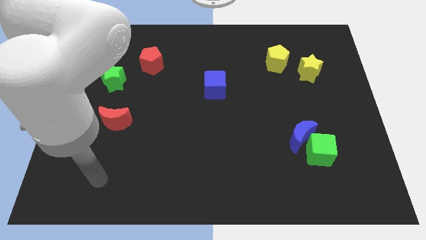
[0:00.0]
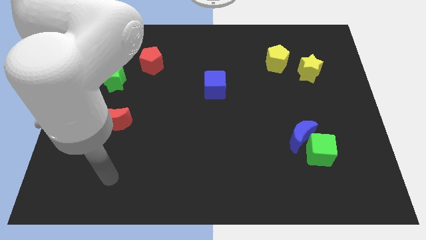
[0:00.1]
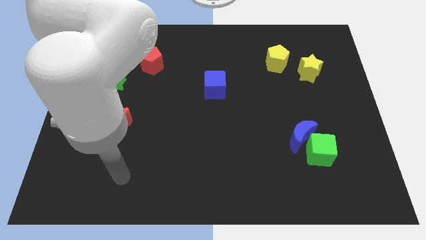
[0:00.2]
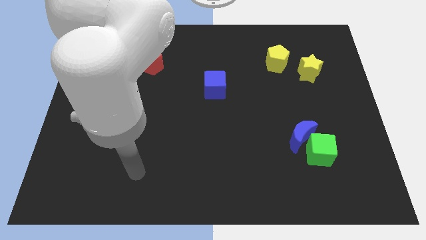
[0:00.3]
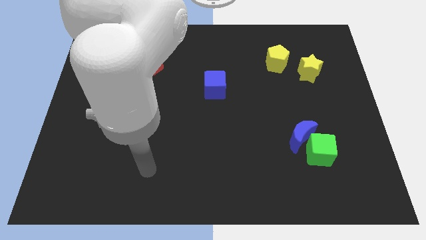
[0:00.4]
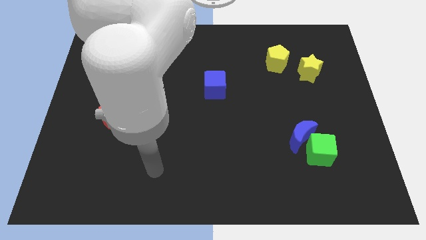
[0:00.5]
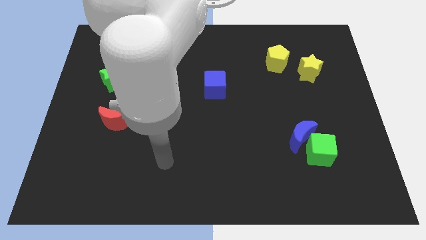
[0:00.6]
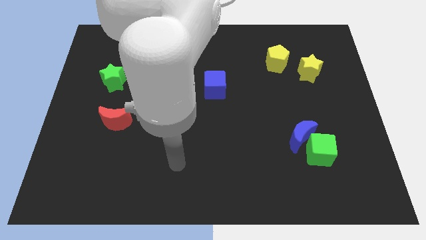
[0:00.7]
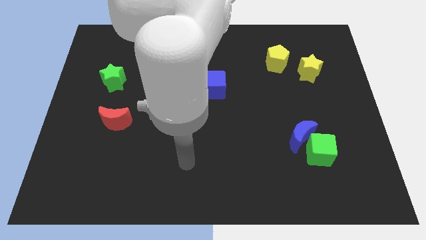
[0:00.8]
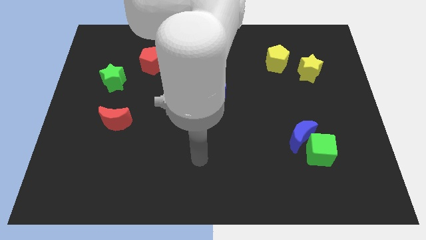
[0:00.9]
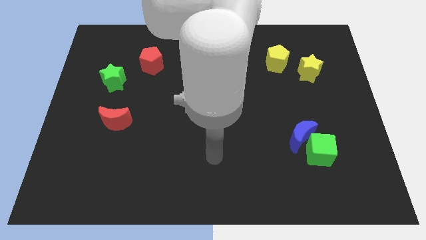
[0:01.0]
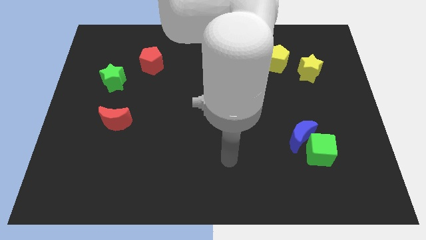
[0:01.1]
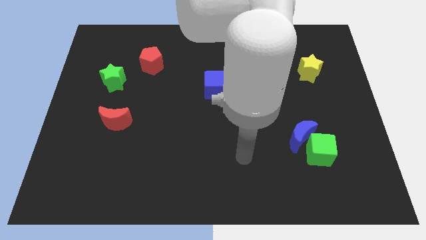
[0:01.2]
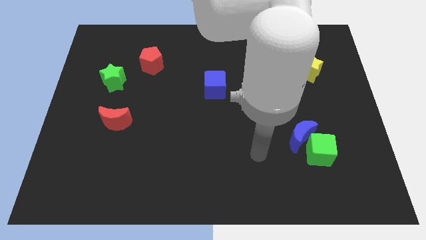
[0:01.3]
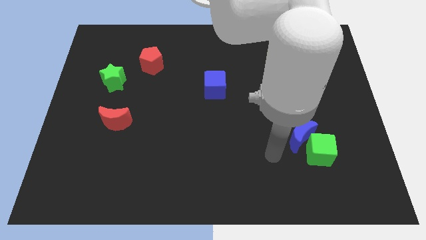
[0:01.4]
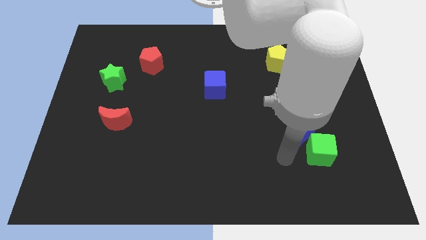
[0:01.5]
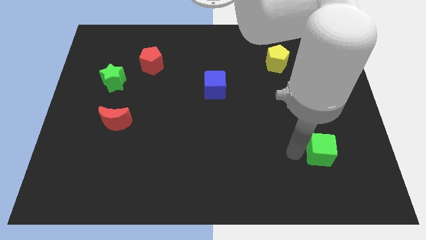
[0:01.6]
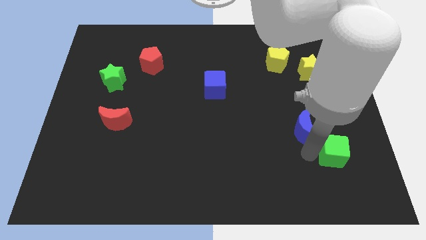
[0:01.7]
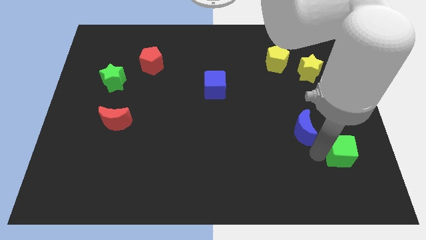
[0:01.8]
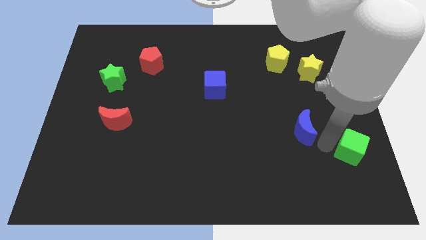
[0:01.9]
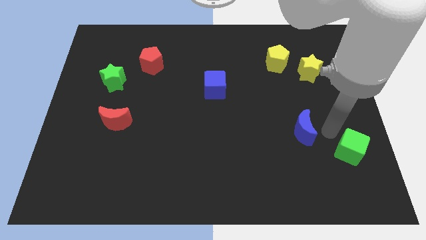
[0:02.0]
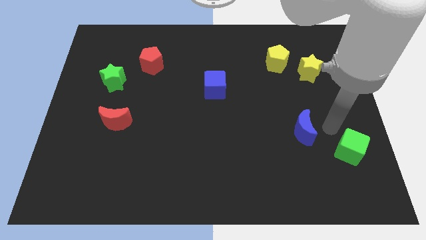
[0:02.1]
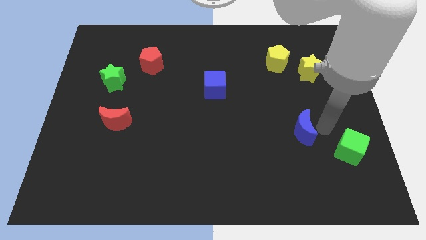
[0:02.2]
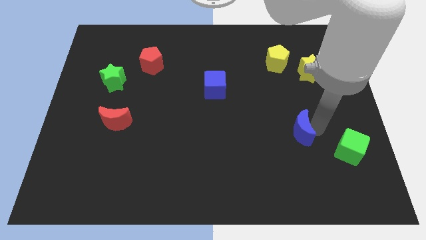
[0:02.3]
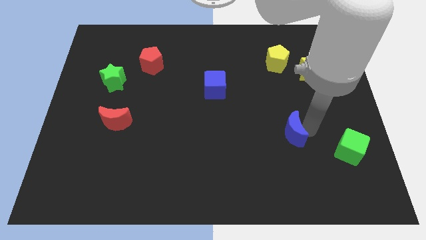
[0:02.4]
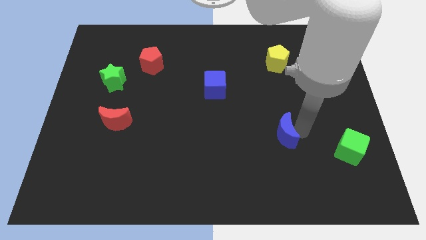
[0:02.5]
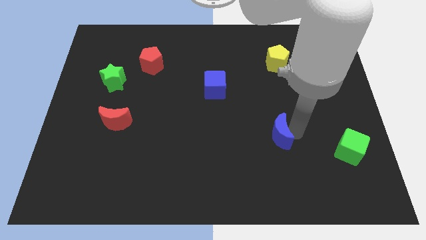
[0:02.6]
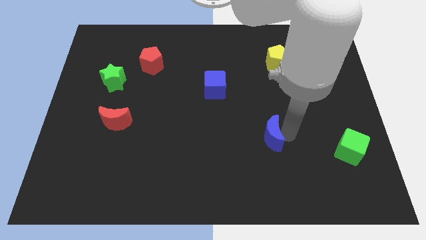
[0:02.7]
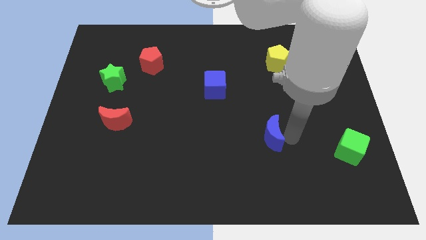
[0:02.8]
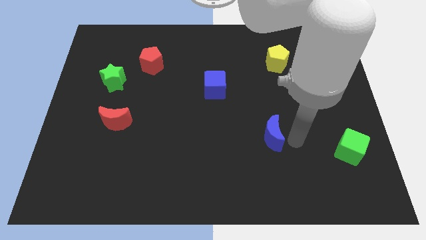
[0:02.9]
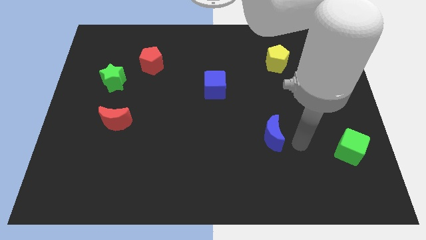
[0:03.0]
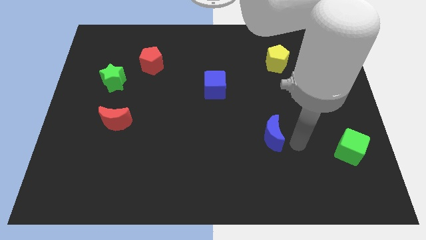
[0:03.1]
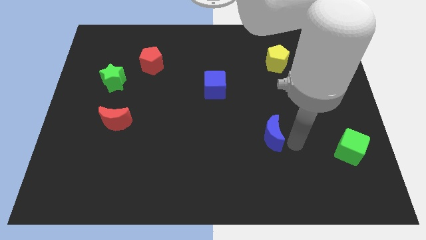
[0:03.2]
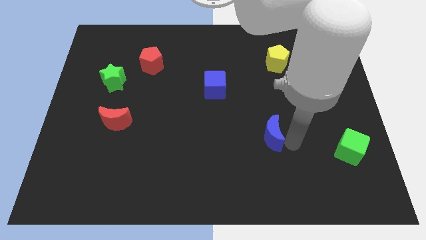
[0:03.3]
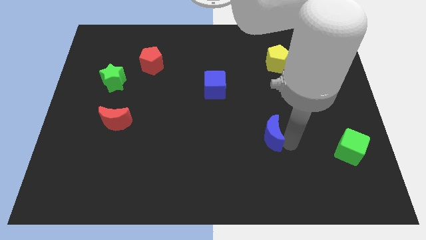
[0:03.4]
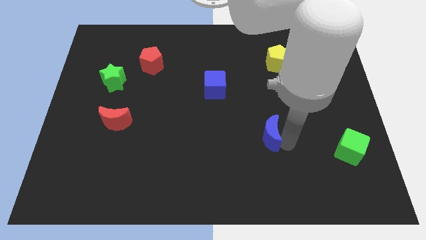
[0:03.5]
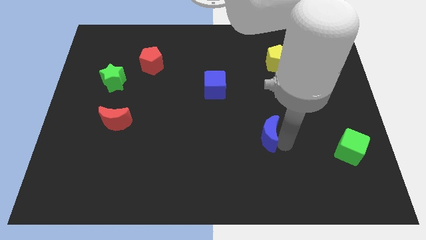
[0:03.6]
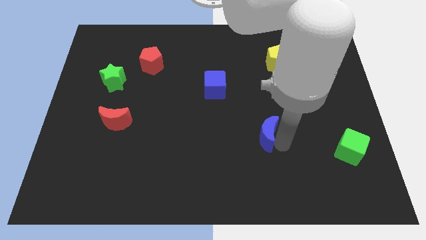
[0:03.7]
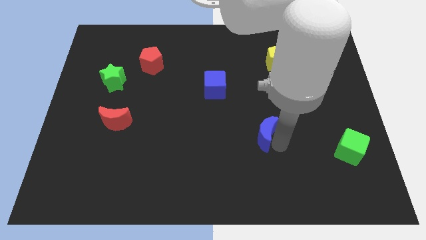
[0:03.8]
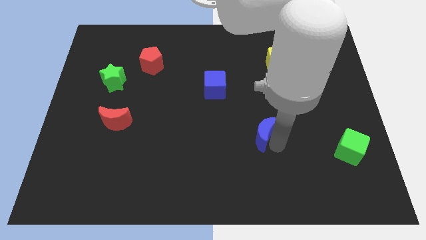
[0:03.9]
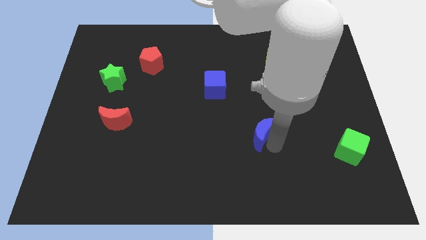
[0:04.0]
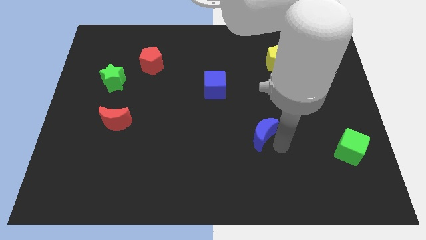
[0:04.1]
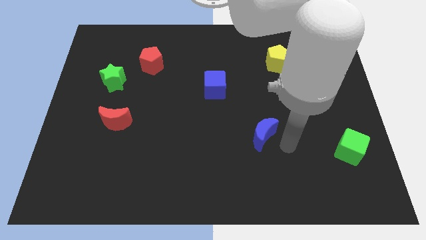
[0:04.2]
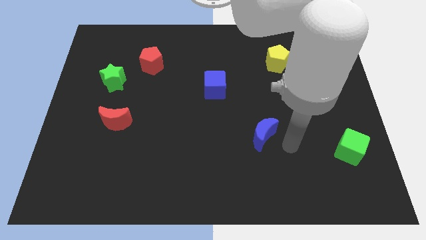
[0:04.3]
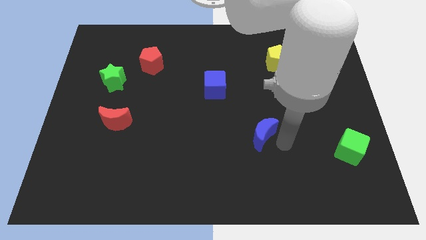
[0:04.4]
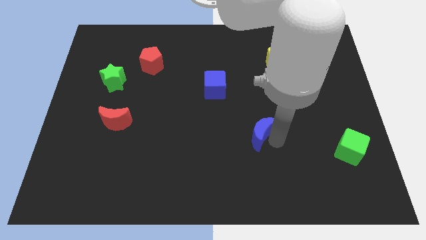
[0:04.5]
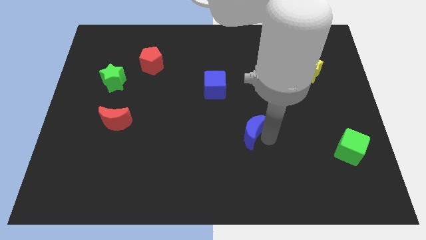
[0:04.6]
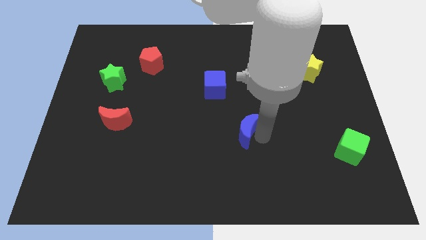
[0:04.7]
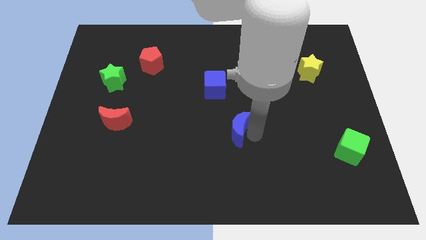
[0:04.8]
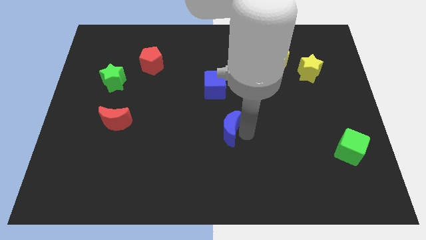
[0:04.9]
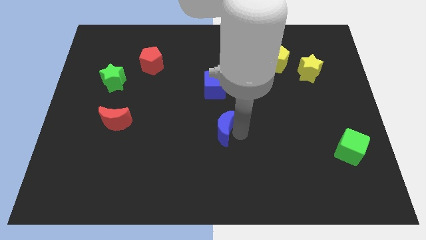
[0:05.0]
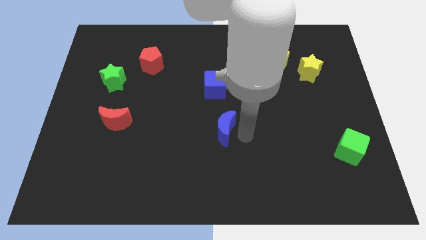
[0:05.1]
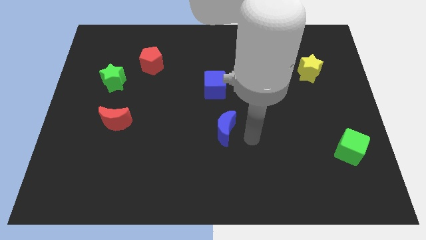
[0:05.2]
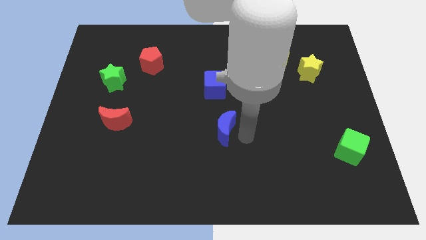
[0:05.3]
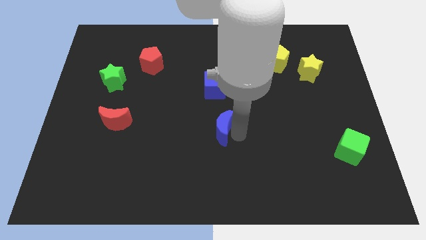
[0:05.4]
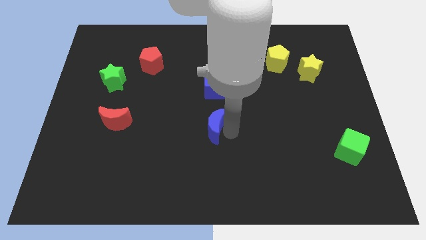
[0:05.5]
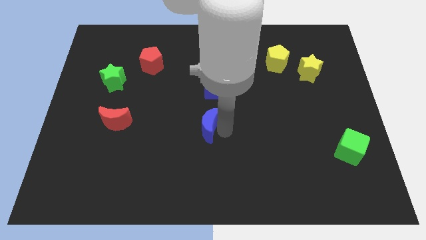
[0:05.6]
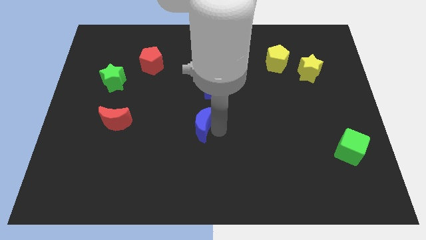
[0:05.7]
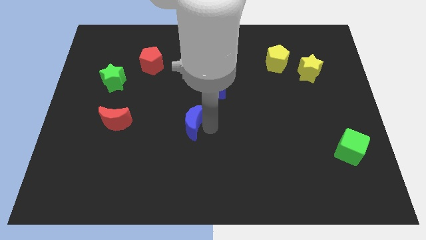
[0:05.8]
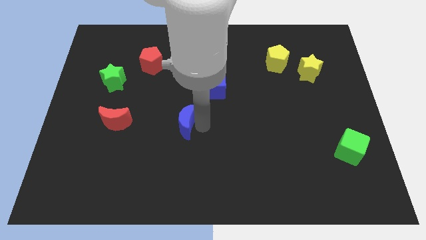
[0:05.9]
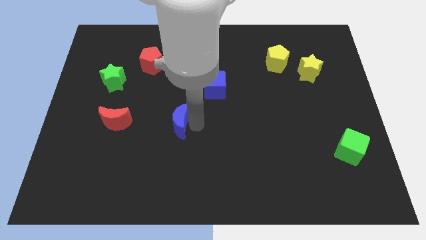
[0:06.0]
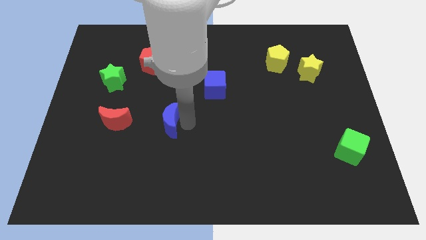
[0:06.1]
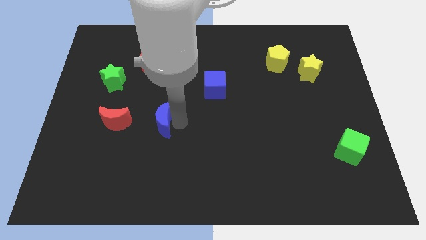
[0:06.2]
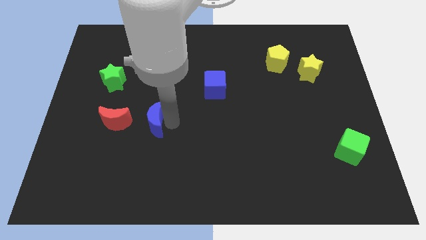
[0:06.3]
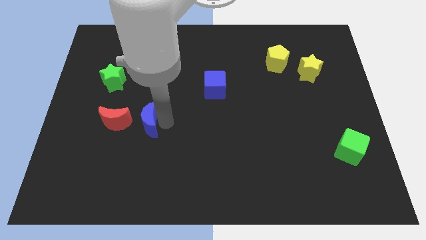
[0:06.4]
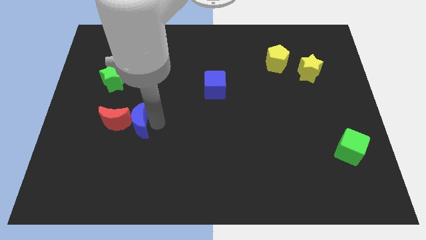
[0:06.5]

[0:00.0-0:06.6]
slide the blue moon to the red moon

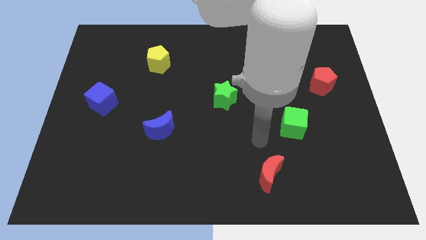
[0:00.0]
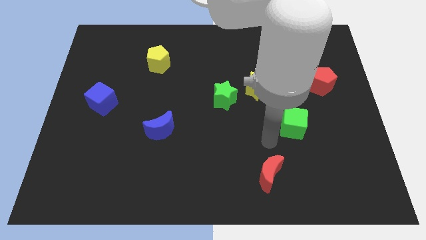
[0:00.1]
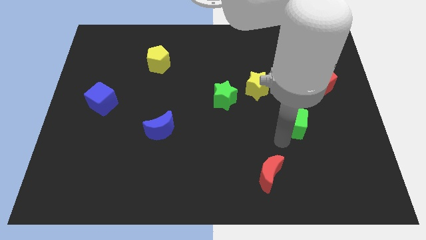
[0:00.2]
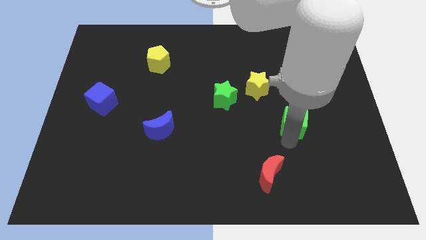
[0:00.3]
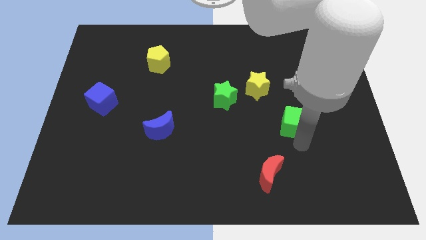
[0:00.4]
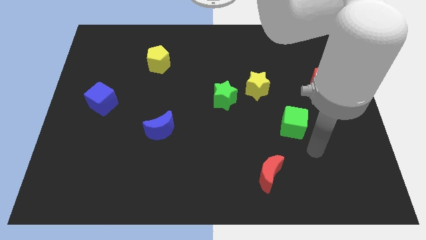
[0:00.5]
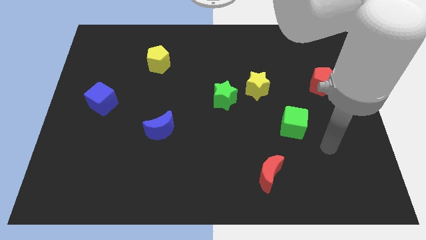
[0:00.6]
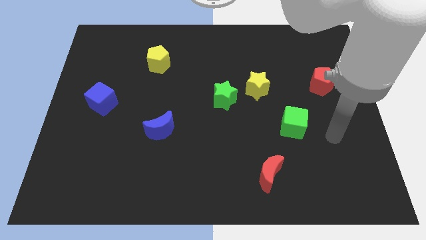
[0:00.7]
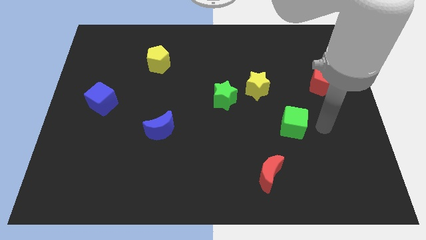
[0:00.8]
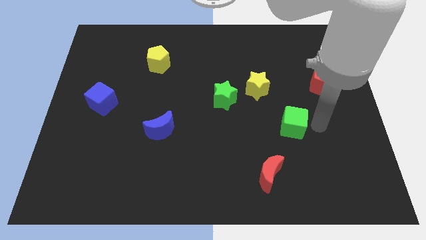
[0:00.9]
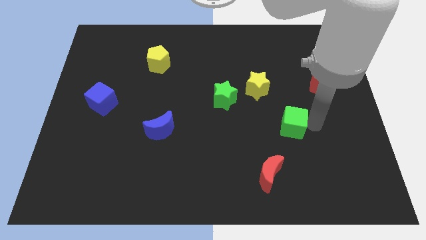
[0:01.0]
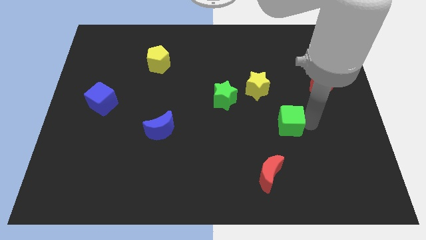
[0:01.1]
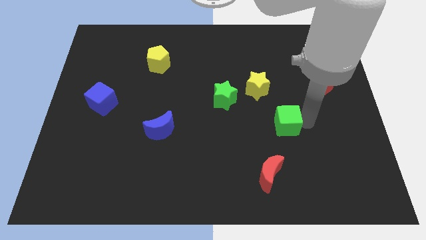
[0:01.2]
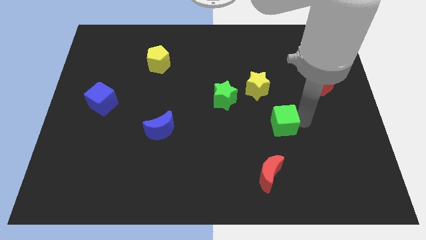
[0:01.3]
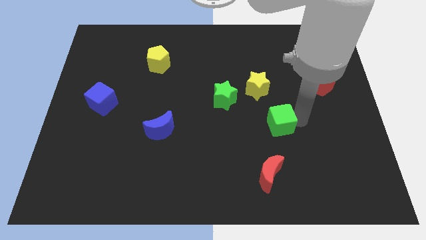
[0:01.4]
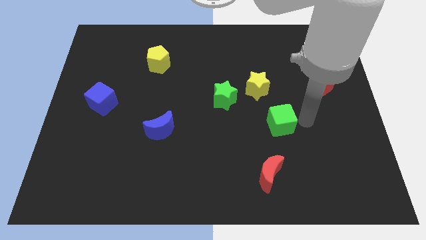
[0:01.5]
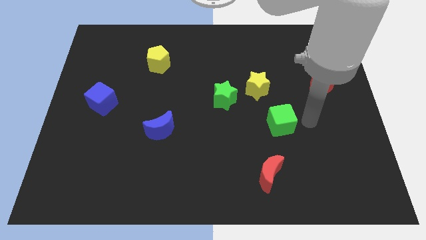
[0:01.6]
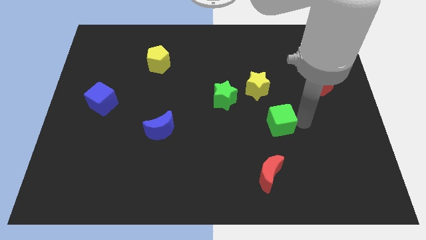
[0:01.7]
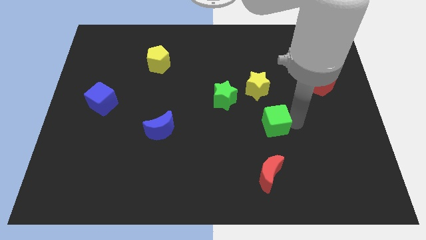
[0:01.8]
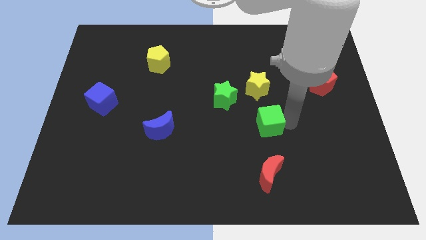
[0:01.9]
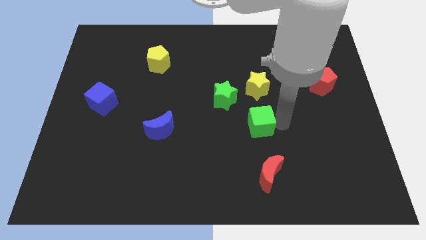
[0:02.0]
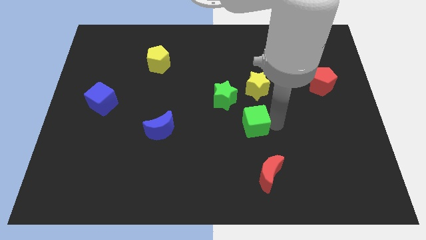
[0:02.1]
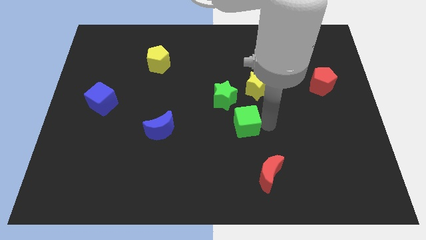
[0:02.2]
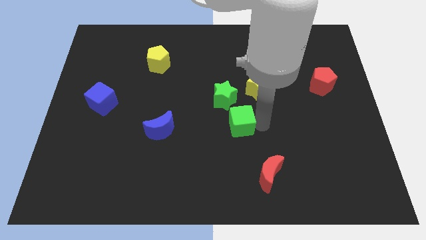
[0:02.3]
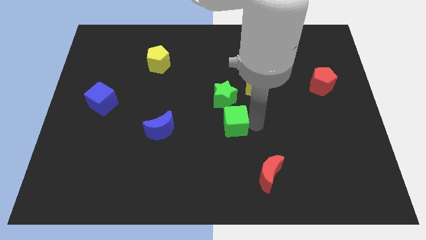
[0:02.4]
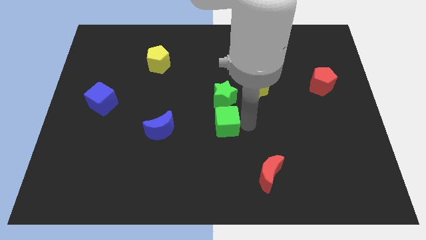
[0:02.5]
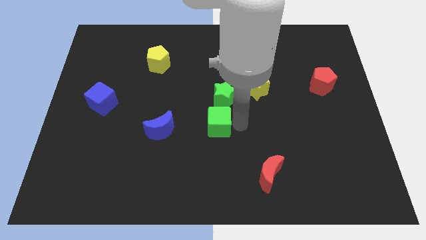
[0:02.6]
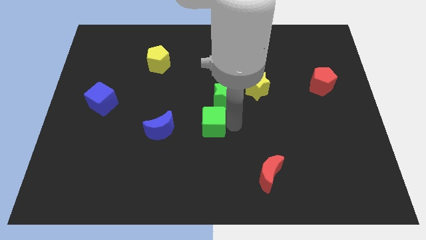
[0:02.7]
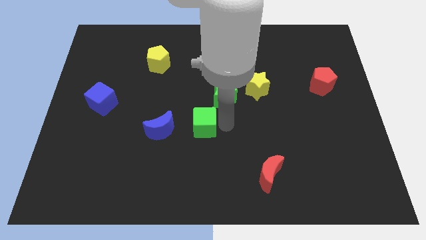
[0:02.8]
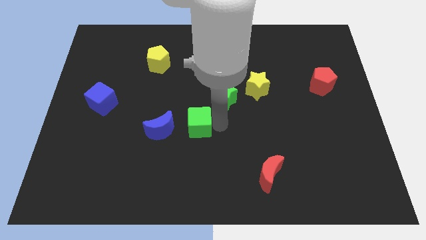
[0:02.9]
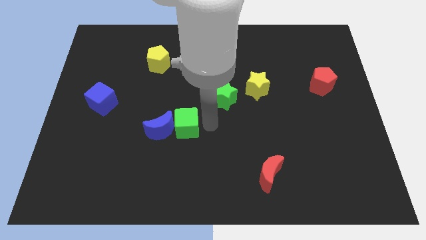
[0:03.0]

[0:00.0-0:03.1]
put the green cube next to the blue moon
